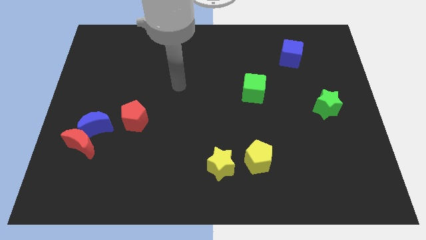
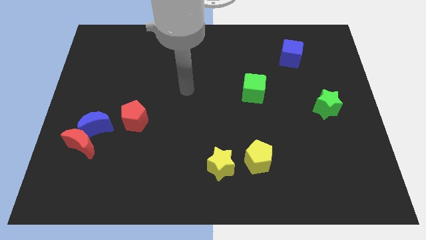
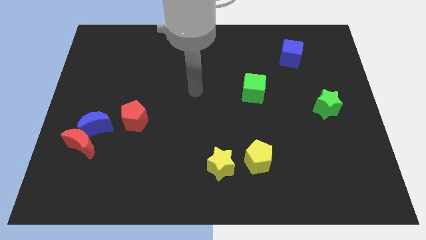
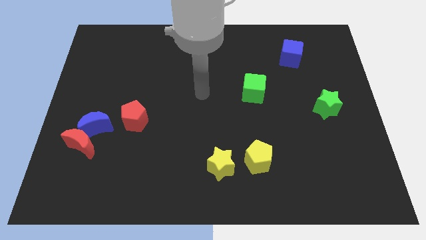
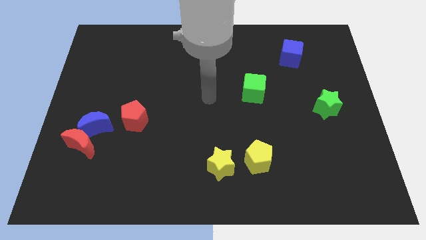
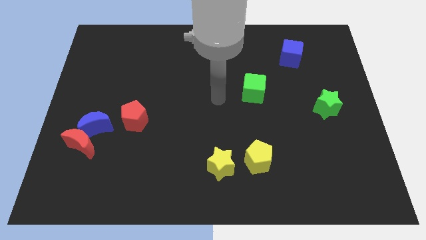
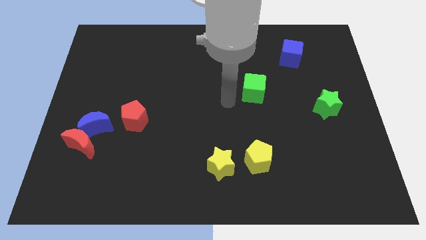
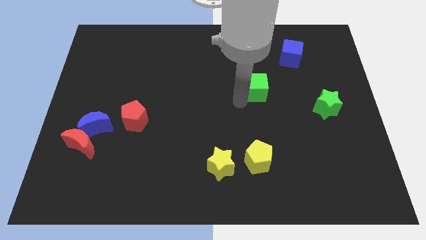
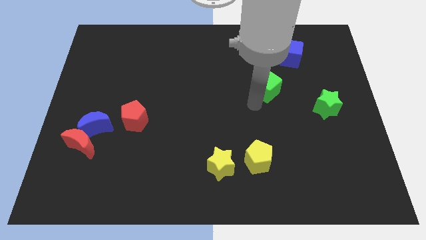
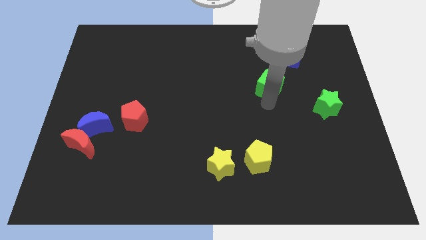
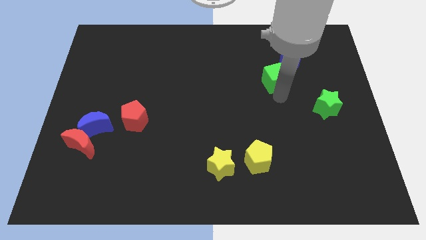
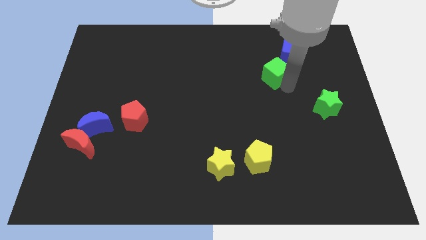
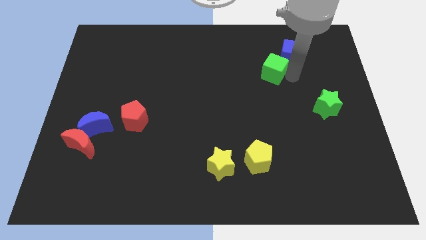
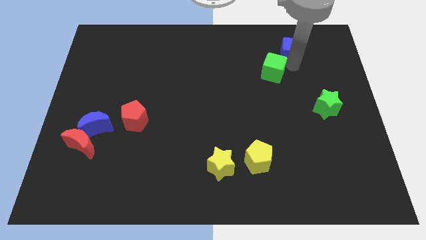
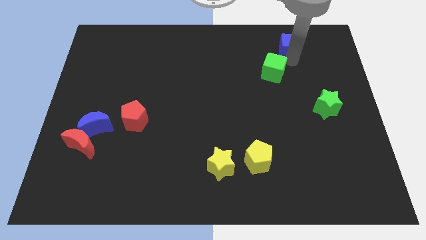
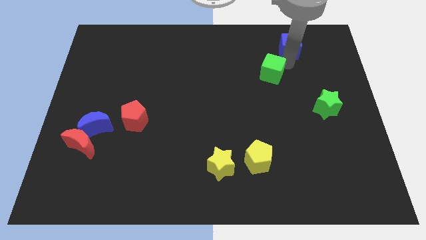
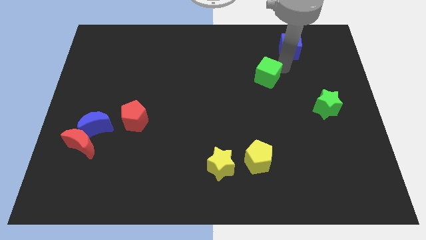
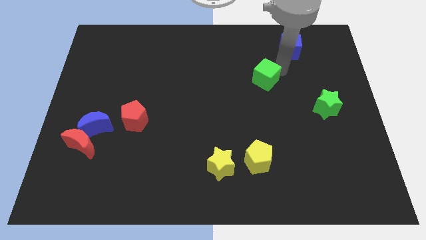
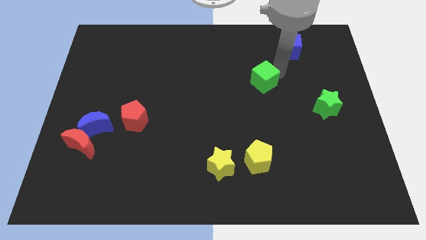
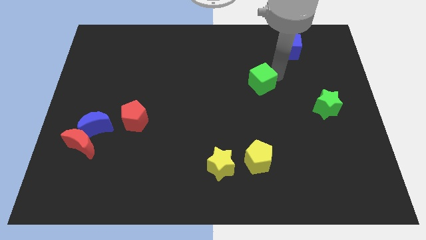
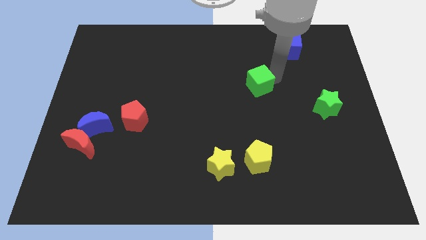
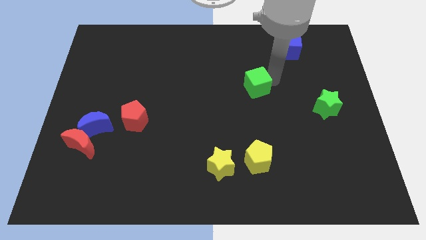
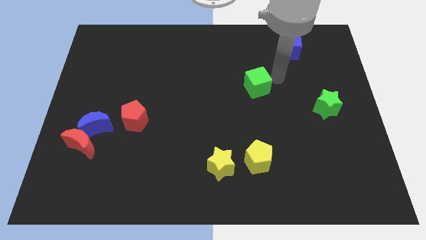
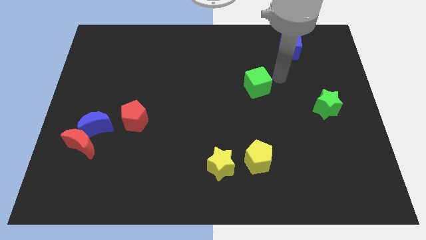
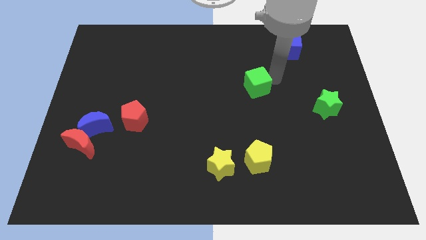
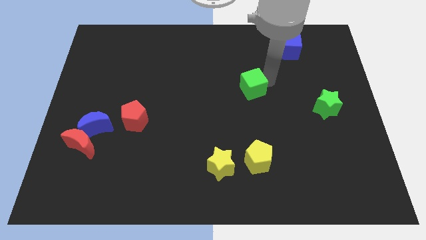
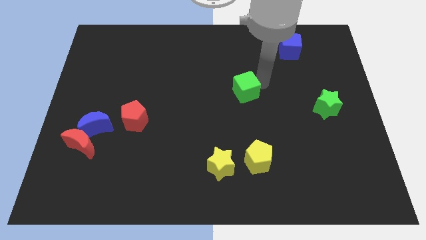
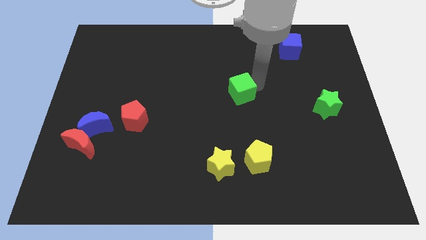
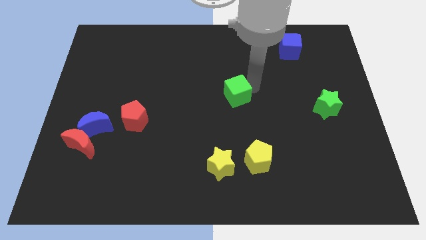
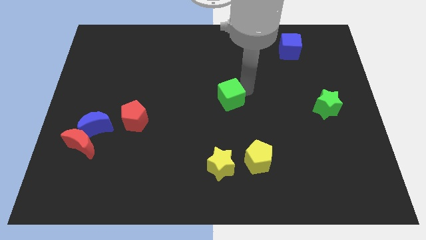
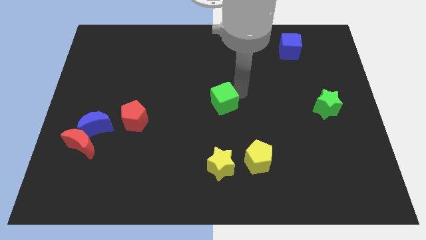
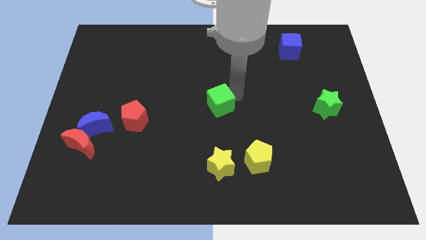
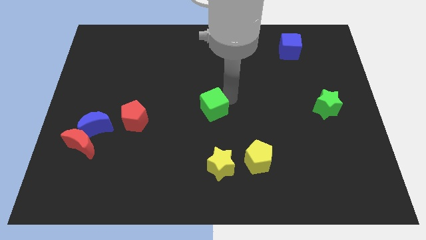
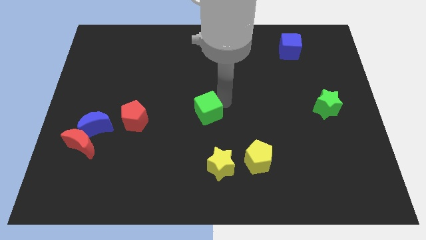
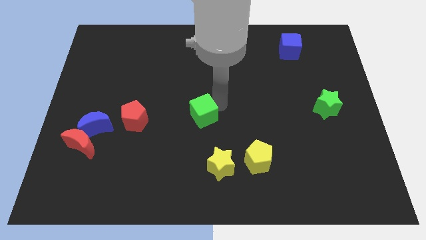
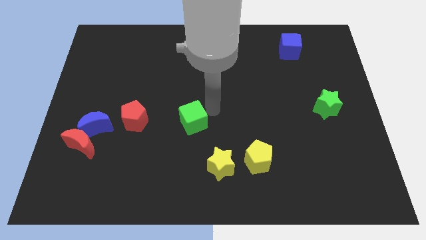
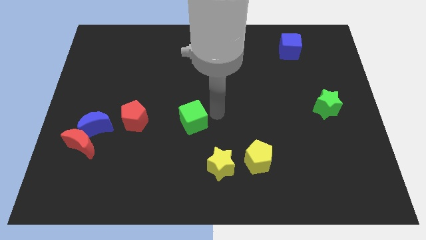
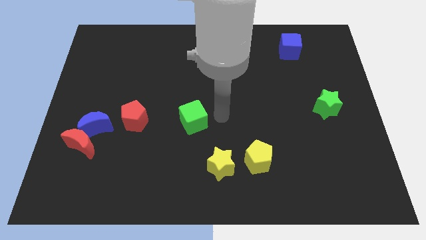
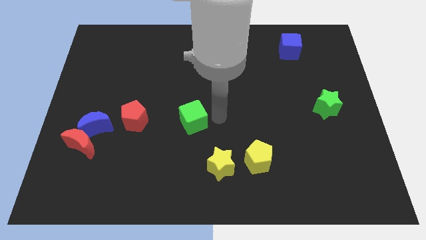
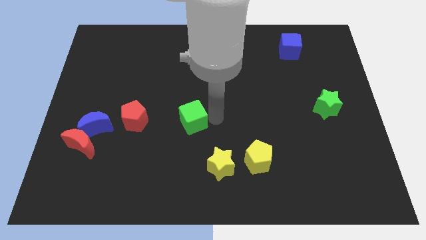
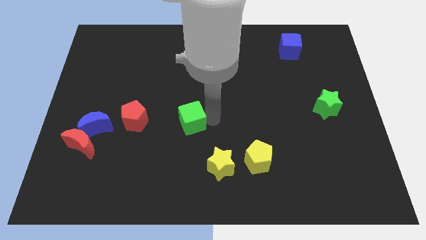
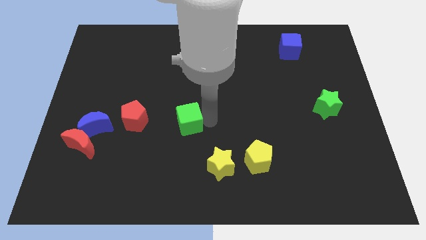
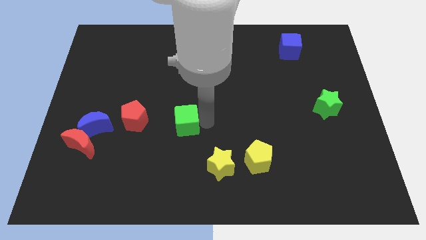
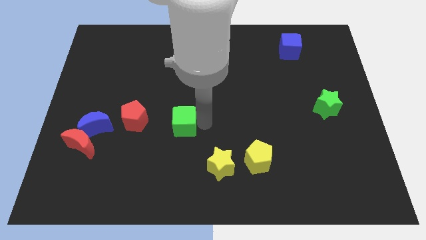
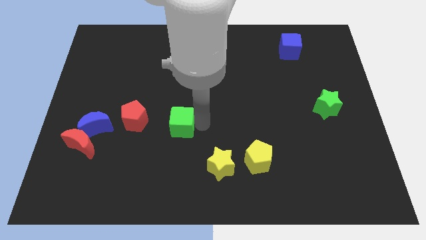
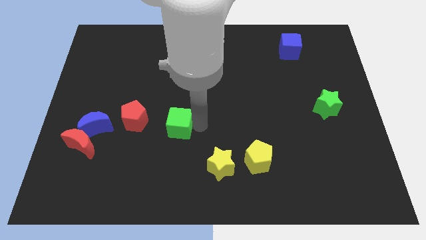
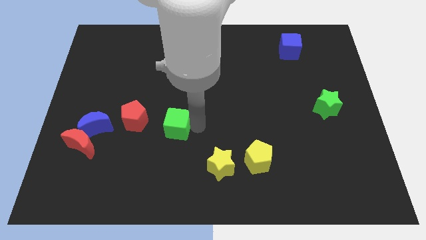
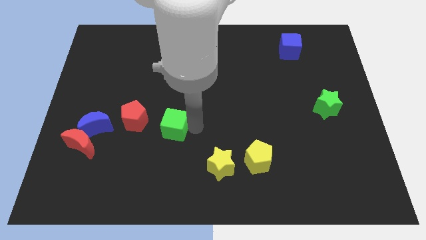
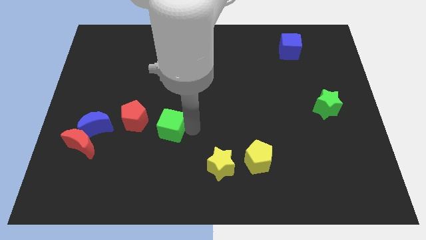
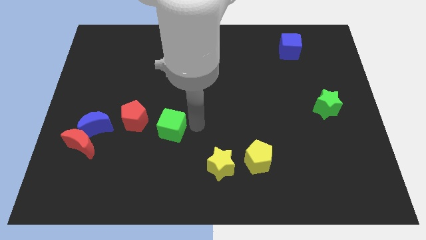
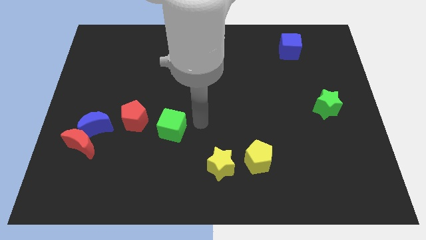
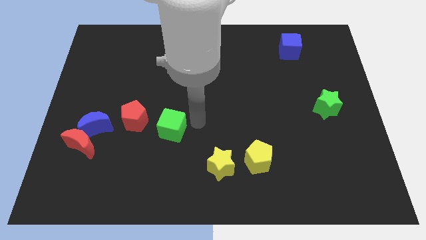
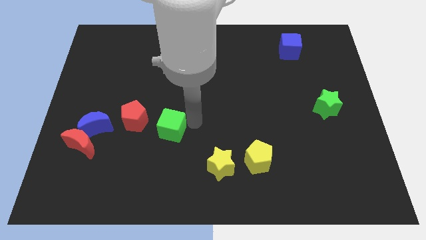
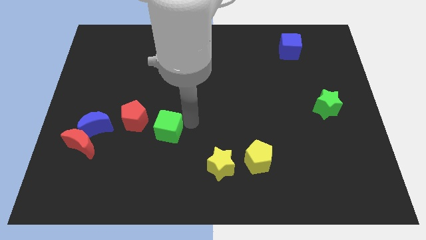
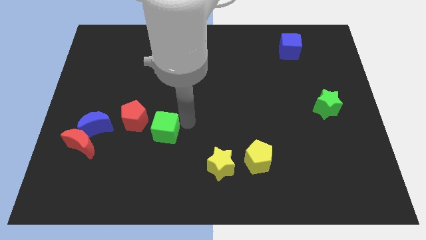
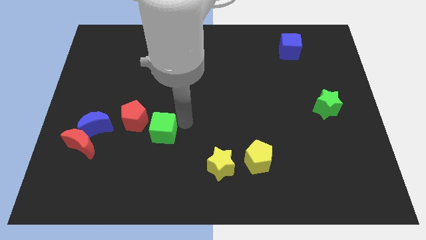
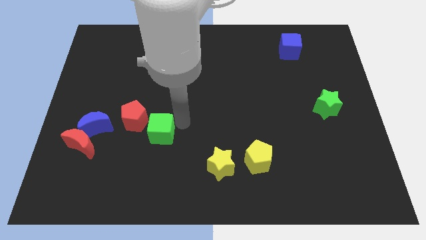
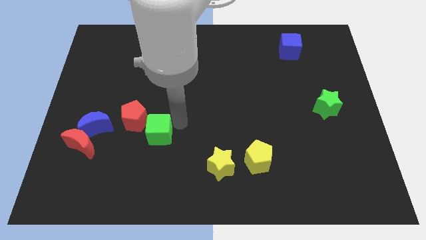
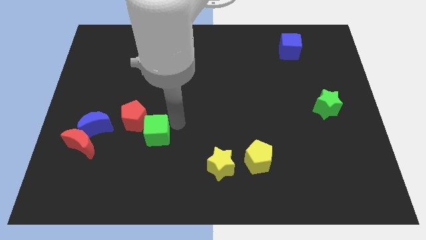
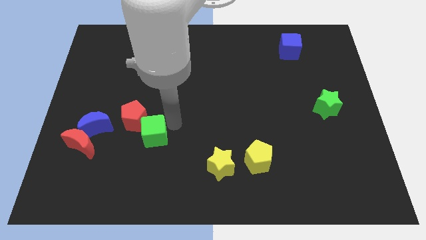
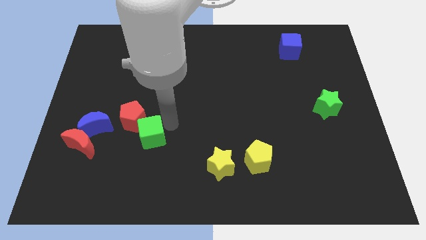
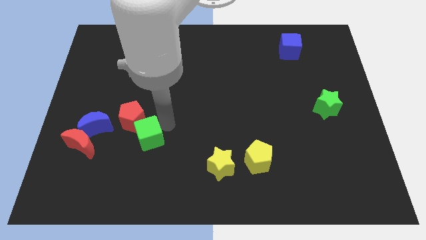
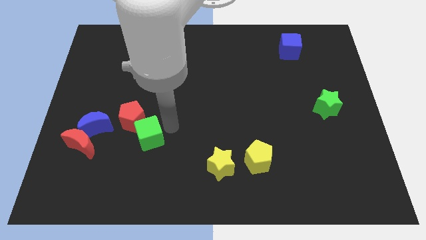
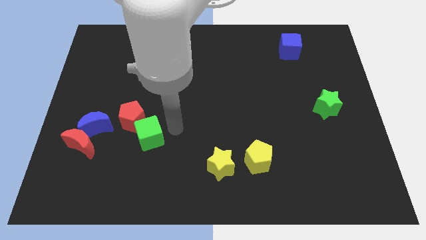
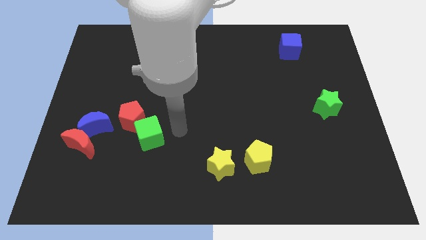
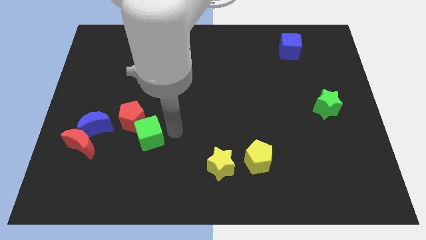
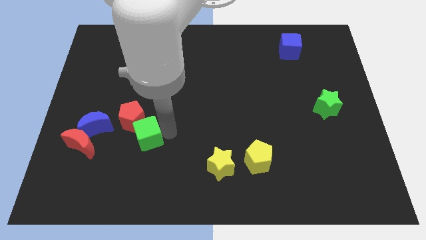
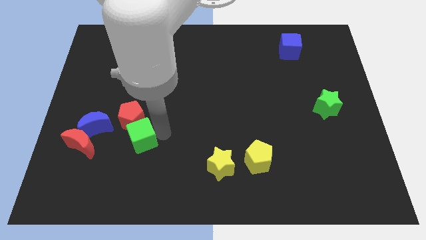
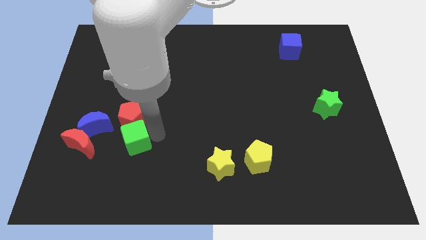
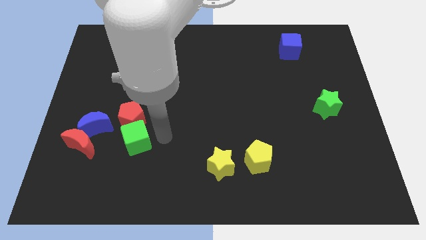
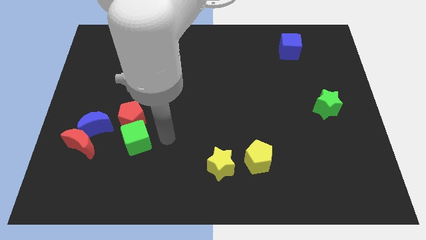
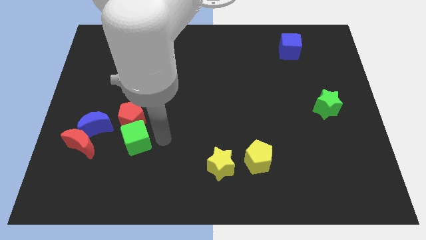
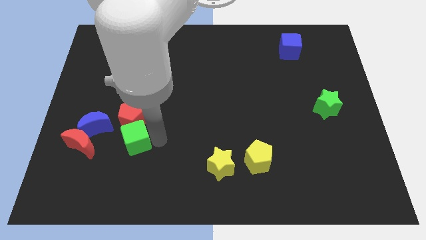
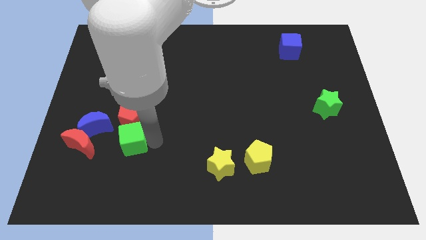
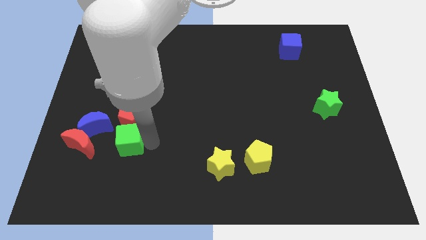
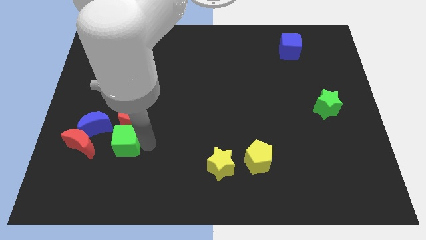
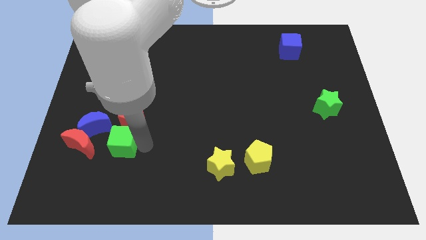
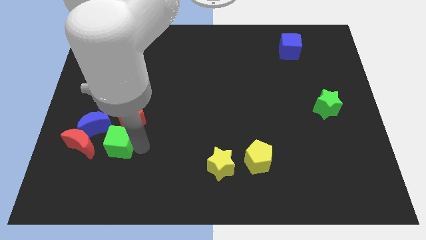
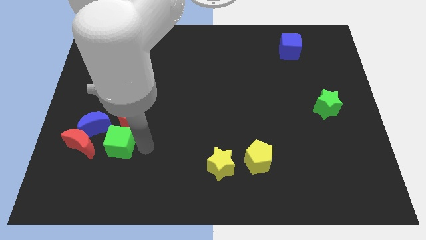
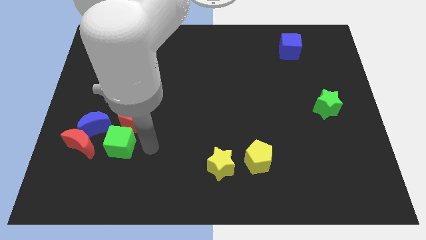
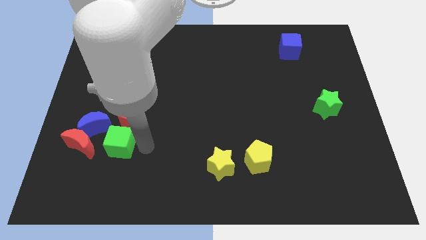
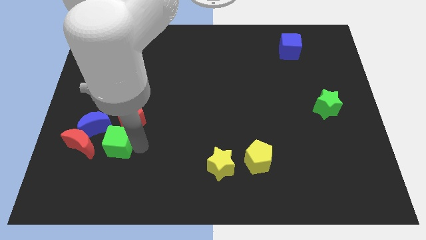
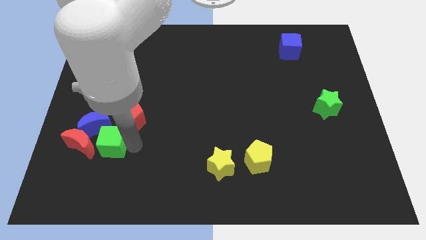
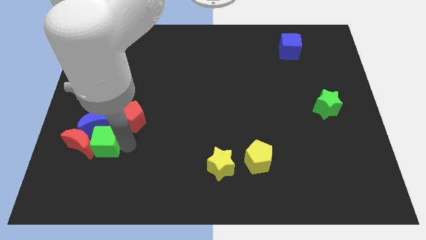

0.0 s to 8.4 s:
move the green cube towards the red moon
